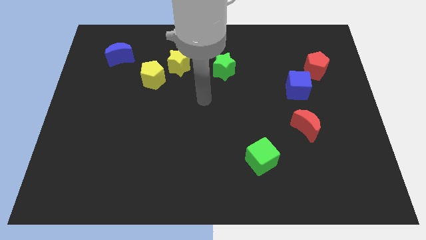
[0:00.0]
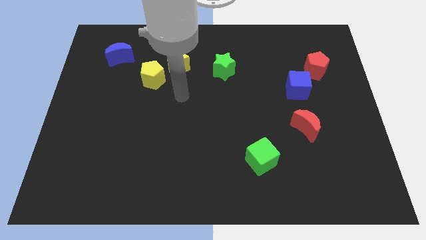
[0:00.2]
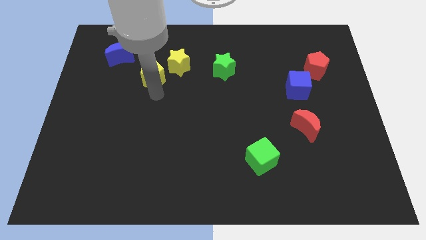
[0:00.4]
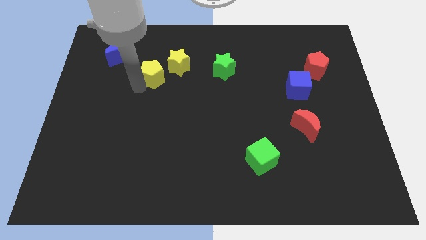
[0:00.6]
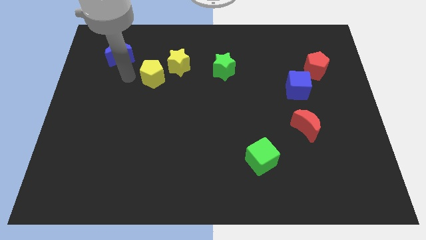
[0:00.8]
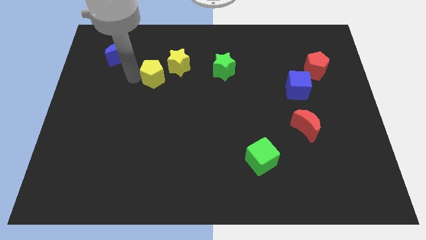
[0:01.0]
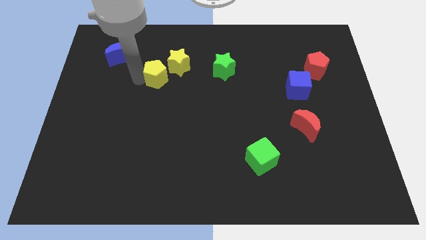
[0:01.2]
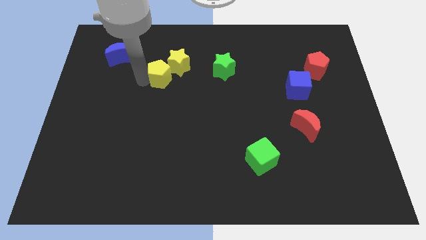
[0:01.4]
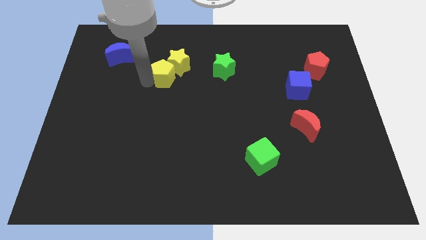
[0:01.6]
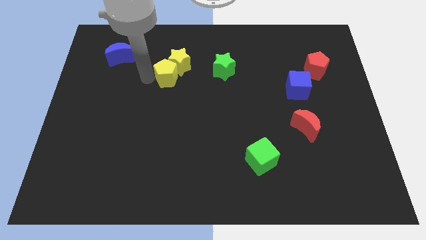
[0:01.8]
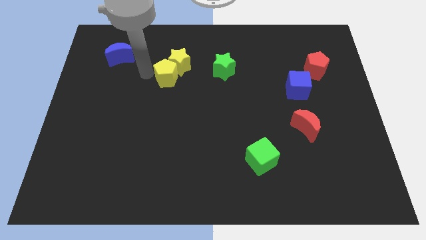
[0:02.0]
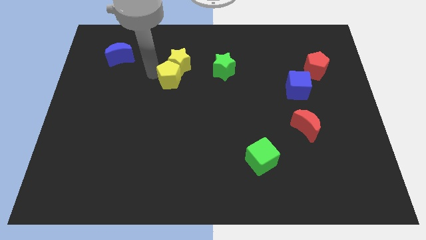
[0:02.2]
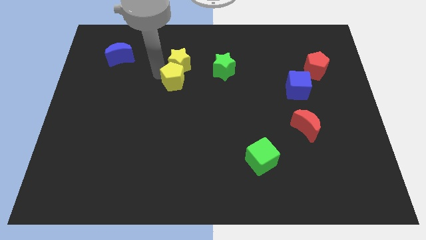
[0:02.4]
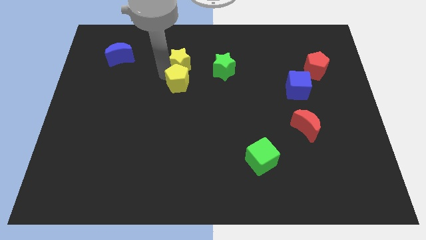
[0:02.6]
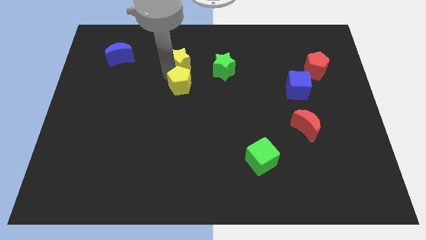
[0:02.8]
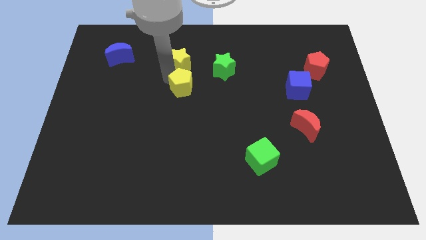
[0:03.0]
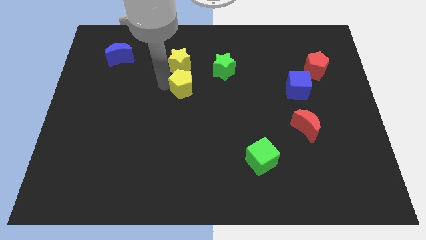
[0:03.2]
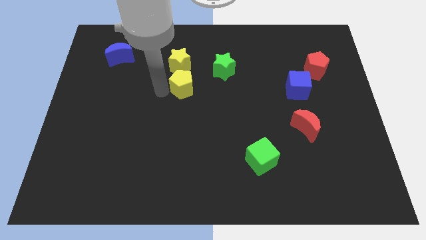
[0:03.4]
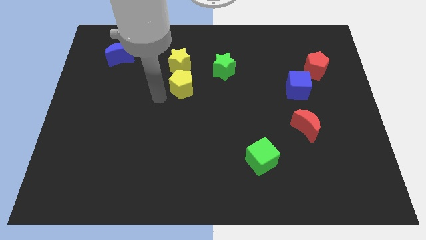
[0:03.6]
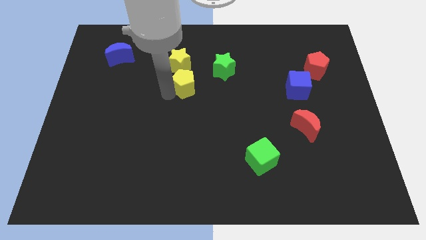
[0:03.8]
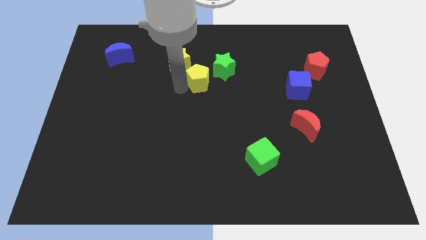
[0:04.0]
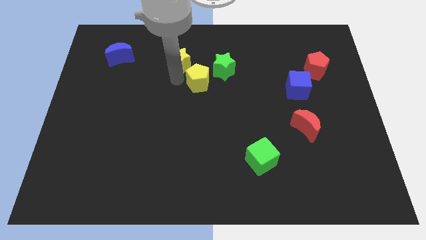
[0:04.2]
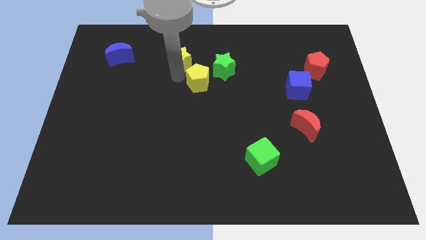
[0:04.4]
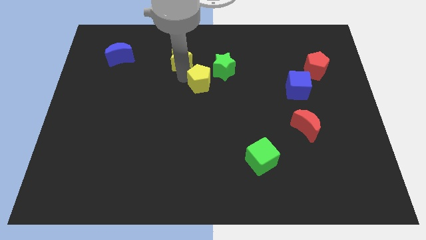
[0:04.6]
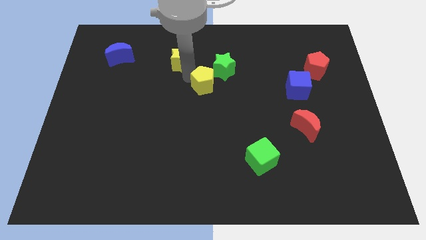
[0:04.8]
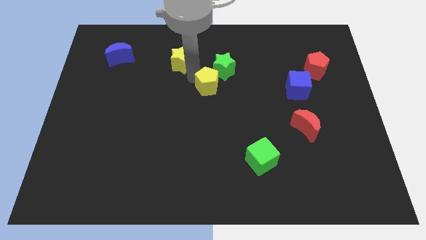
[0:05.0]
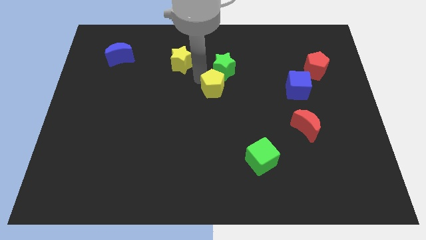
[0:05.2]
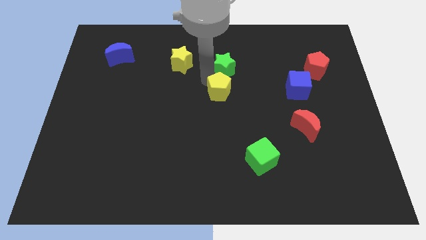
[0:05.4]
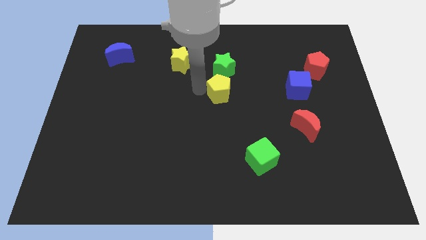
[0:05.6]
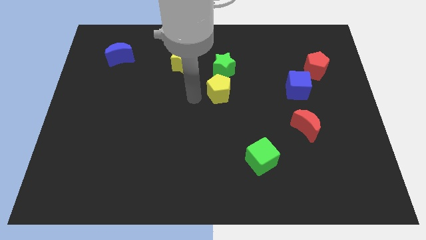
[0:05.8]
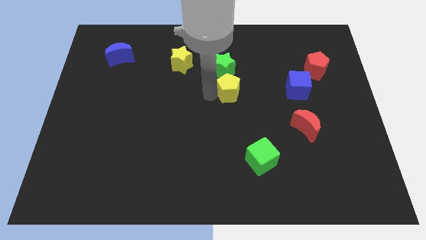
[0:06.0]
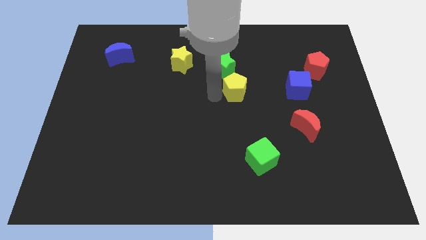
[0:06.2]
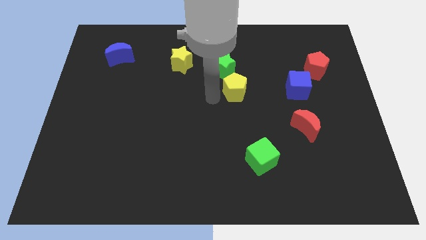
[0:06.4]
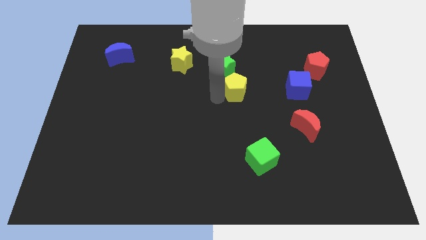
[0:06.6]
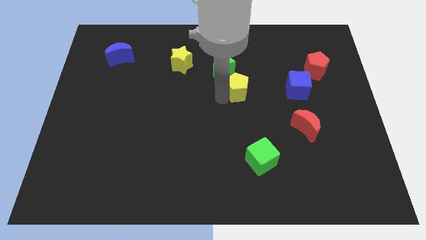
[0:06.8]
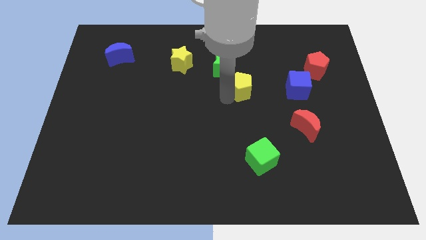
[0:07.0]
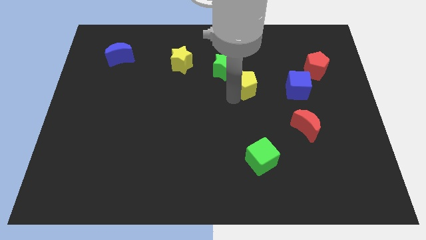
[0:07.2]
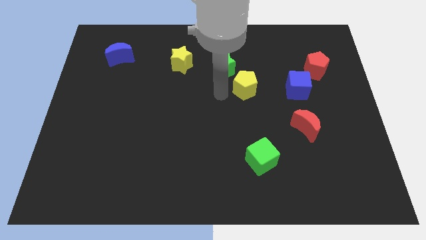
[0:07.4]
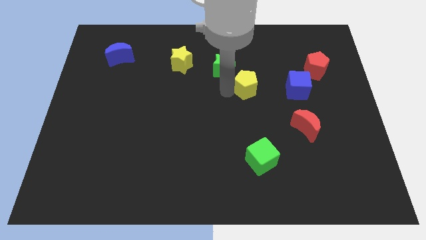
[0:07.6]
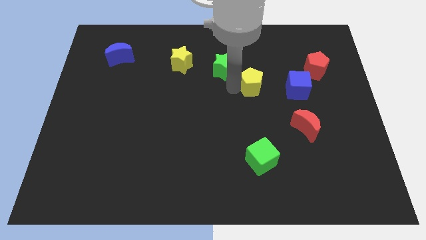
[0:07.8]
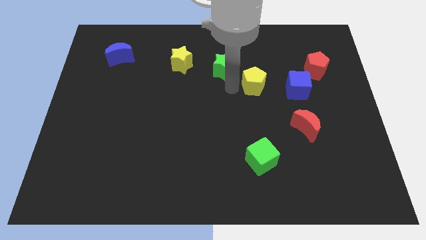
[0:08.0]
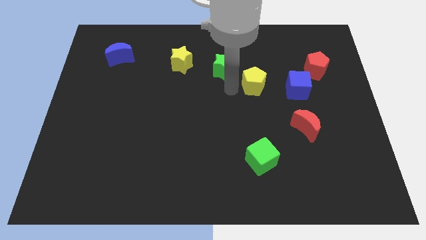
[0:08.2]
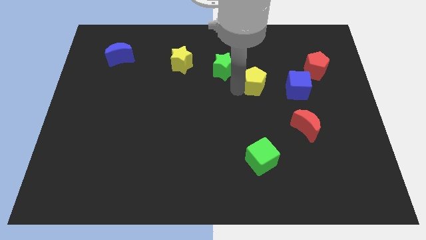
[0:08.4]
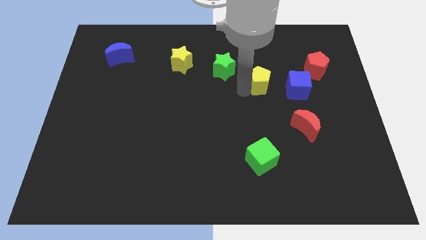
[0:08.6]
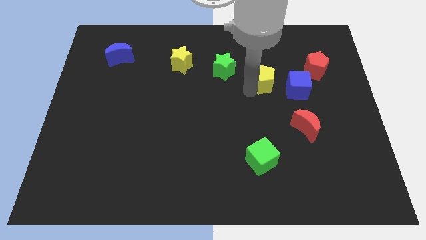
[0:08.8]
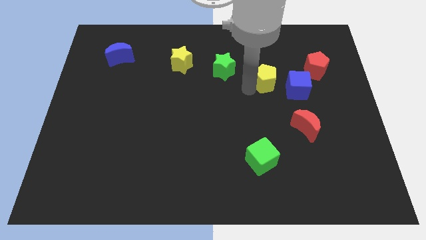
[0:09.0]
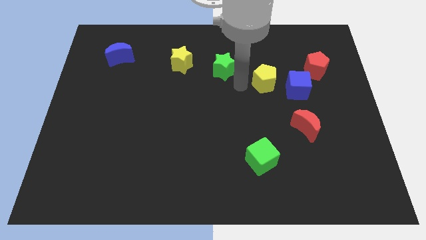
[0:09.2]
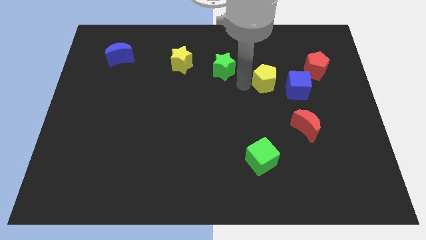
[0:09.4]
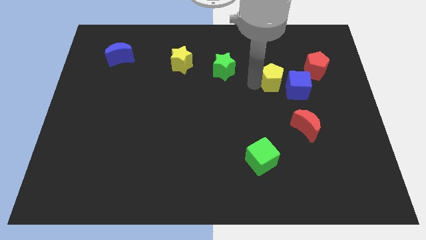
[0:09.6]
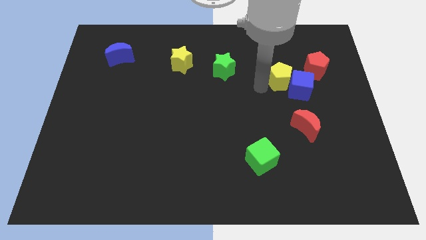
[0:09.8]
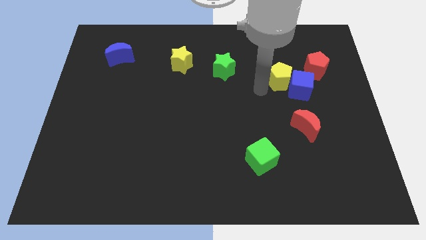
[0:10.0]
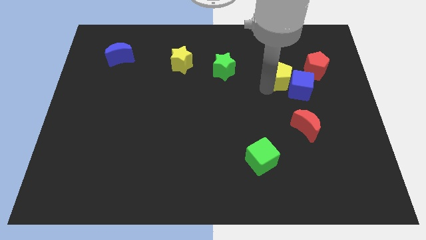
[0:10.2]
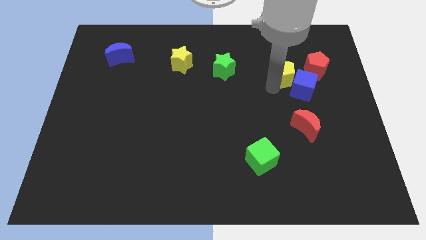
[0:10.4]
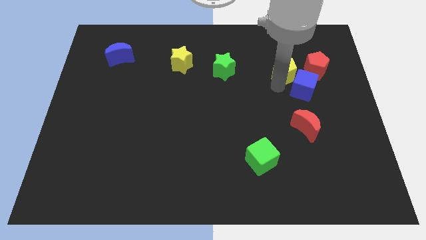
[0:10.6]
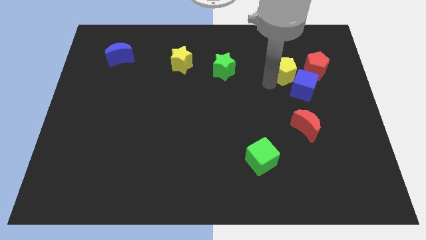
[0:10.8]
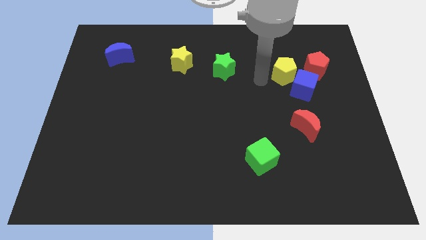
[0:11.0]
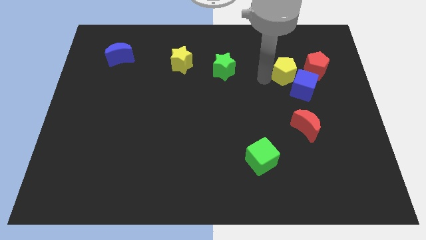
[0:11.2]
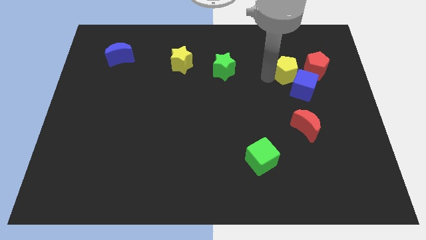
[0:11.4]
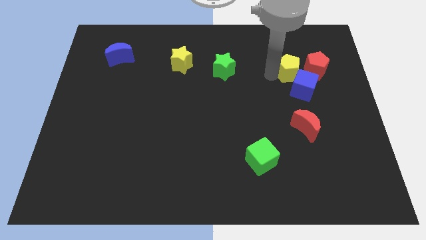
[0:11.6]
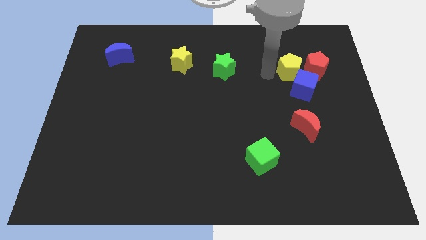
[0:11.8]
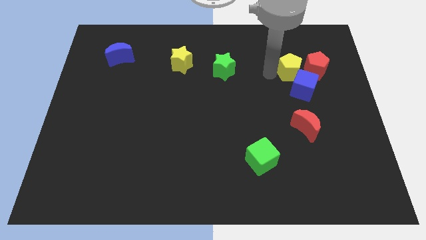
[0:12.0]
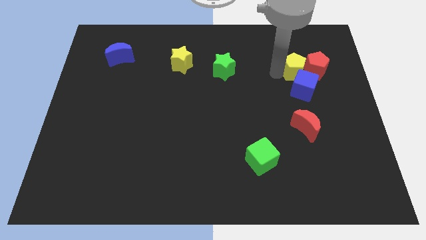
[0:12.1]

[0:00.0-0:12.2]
push the yellow pentagon next to the red pentagon

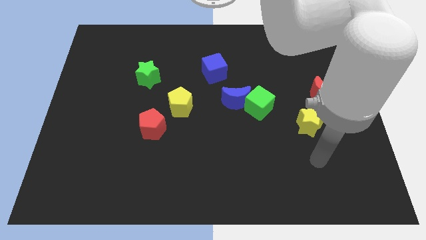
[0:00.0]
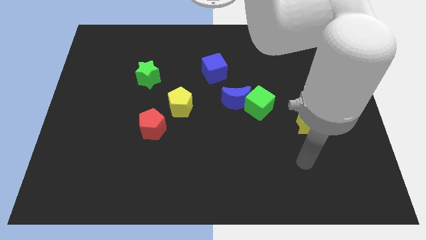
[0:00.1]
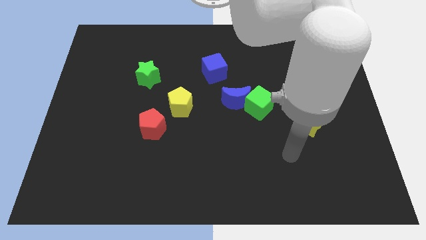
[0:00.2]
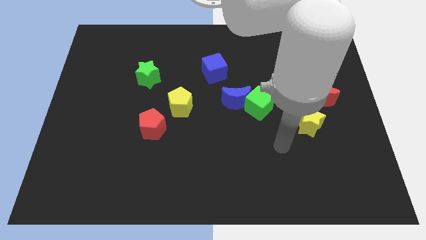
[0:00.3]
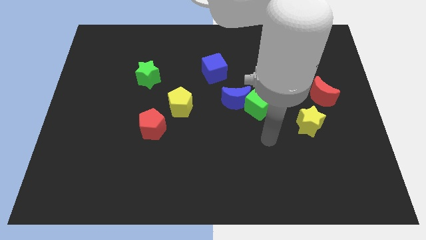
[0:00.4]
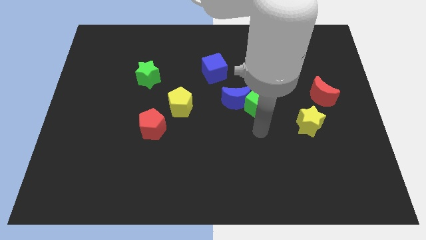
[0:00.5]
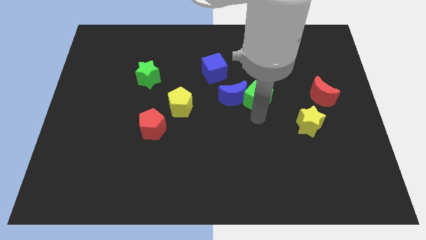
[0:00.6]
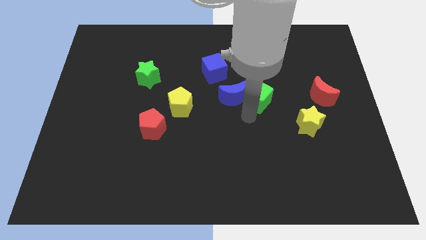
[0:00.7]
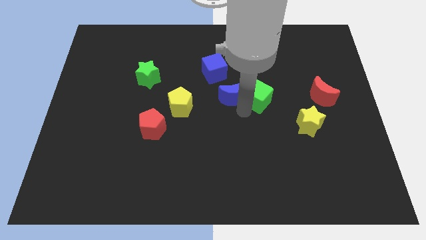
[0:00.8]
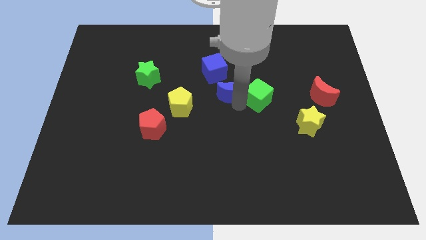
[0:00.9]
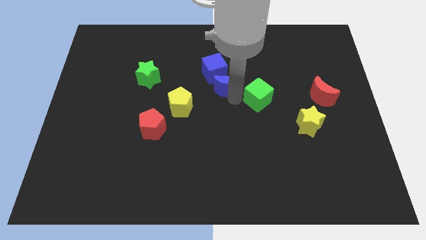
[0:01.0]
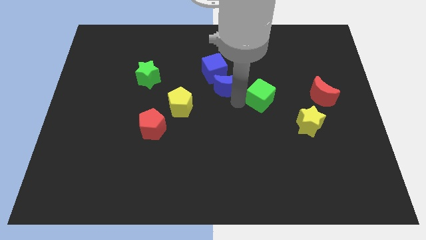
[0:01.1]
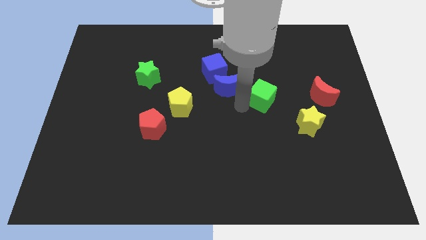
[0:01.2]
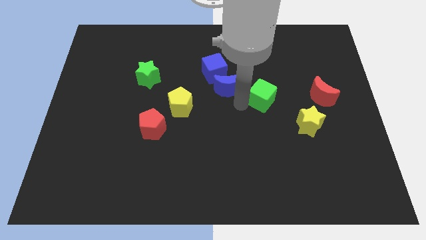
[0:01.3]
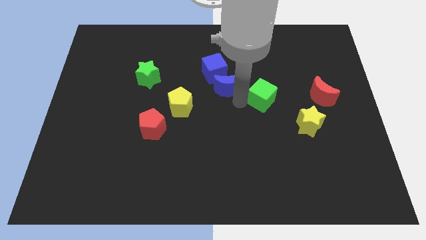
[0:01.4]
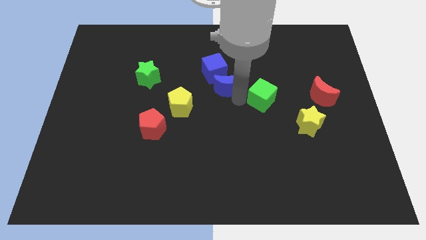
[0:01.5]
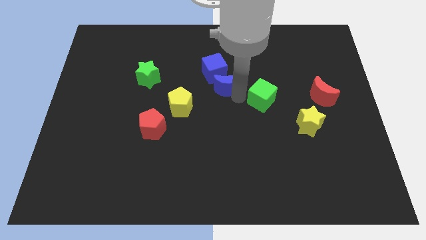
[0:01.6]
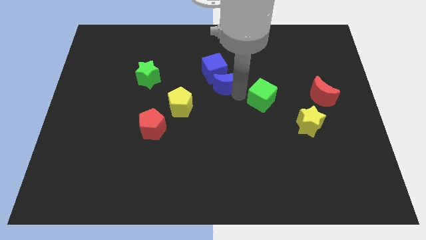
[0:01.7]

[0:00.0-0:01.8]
move the blue moon to the blue cube

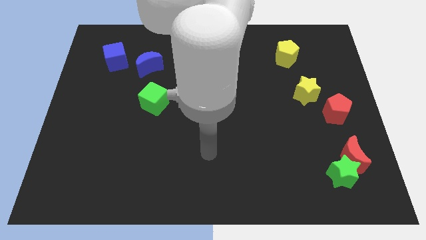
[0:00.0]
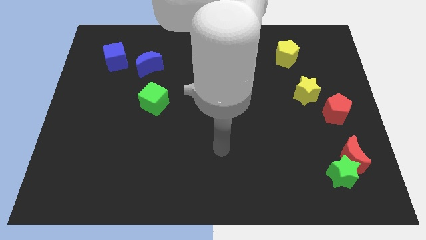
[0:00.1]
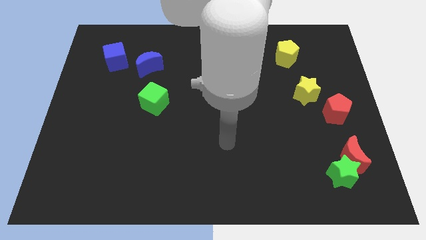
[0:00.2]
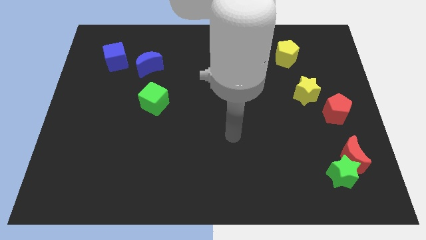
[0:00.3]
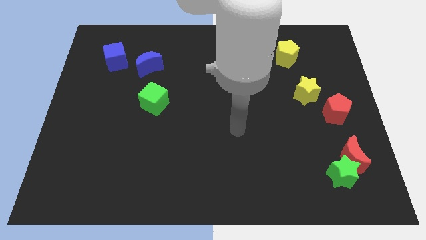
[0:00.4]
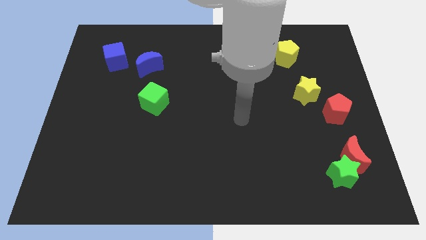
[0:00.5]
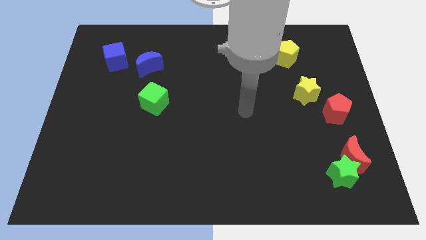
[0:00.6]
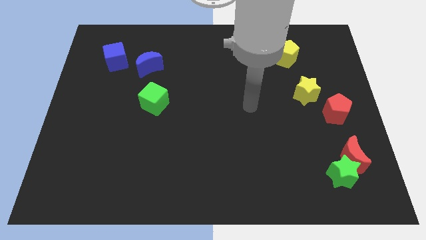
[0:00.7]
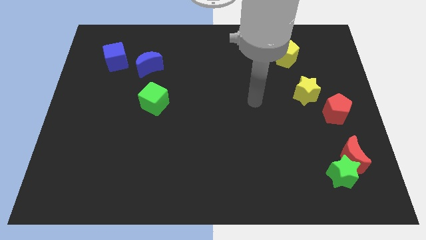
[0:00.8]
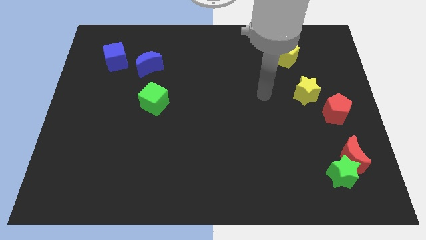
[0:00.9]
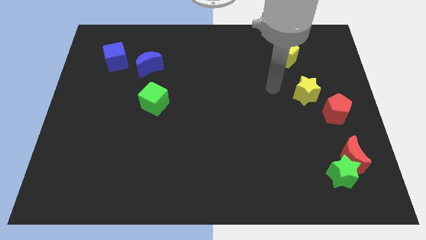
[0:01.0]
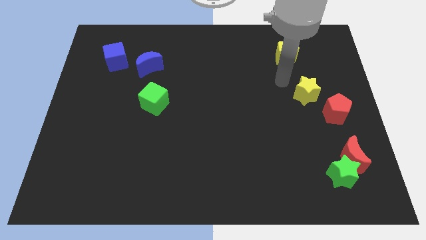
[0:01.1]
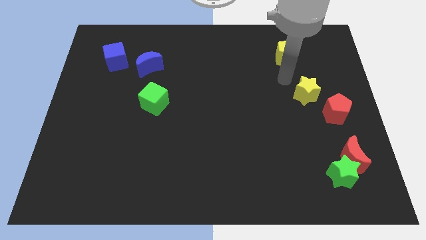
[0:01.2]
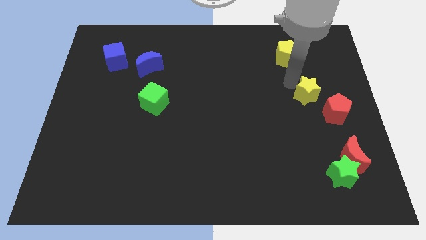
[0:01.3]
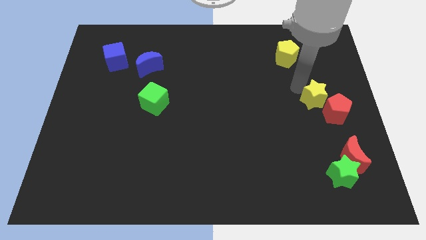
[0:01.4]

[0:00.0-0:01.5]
push the yellow star to the red pentagon
